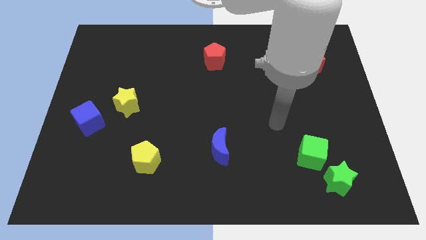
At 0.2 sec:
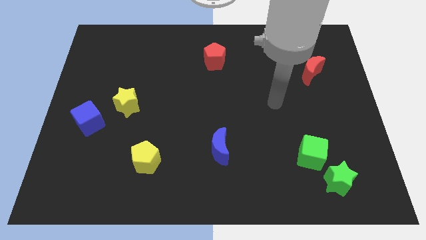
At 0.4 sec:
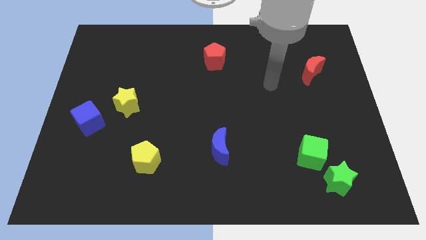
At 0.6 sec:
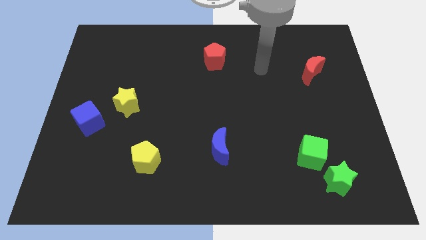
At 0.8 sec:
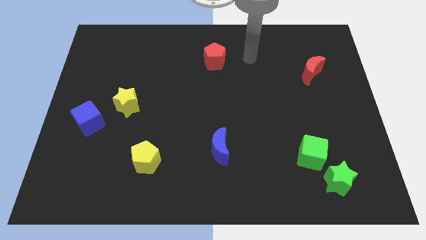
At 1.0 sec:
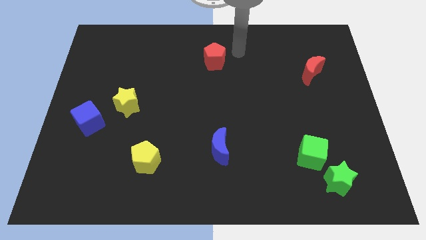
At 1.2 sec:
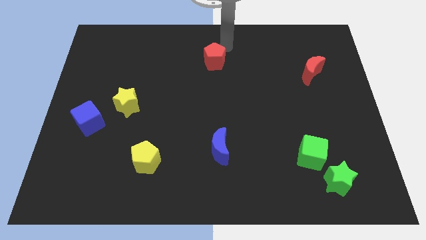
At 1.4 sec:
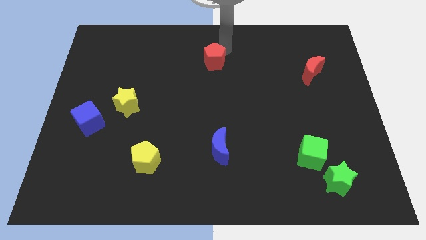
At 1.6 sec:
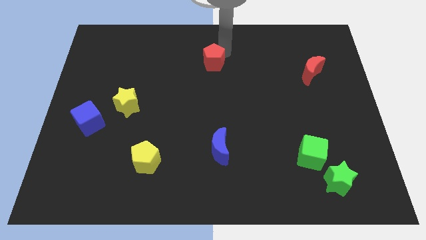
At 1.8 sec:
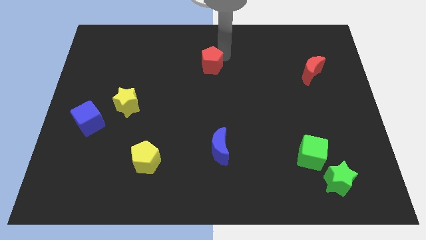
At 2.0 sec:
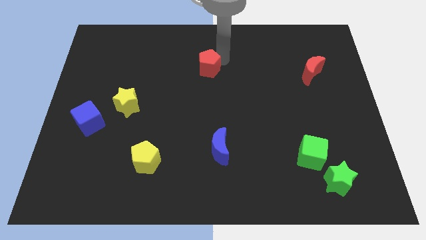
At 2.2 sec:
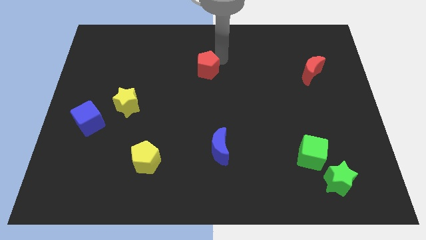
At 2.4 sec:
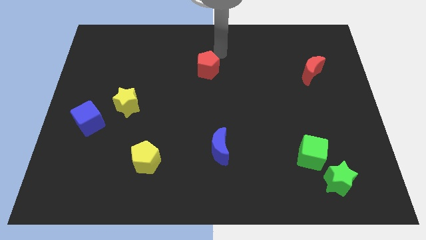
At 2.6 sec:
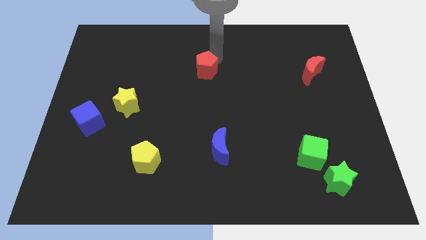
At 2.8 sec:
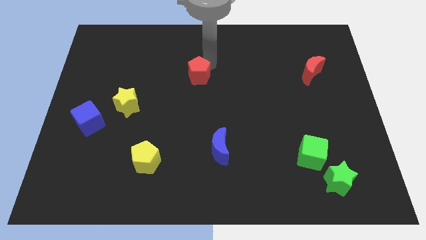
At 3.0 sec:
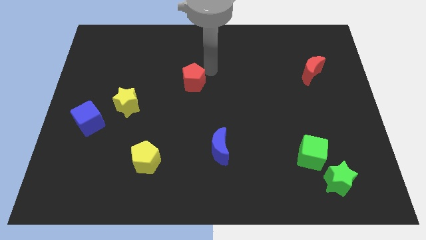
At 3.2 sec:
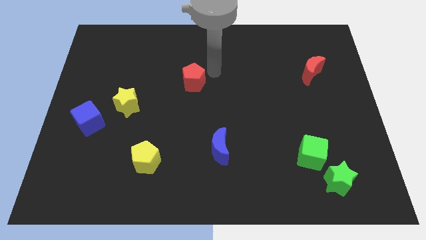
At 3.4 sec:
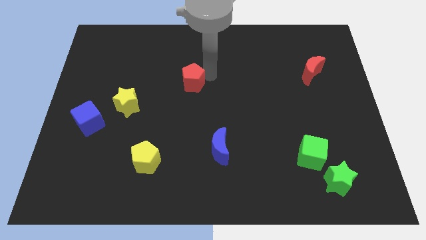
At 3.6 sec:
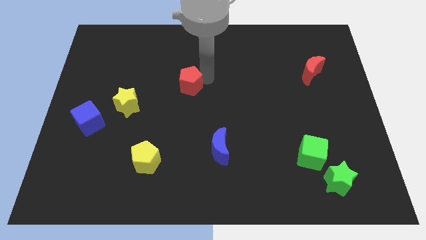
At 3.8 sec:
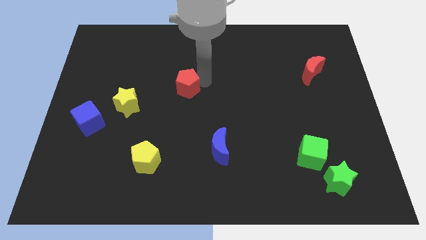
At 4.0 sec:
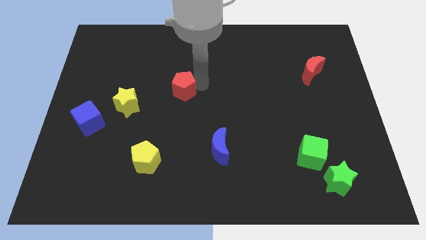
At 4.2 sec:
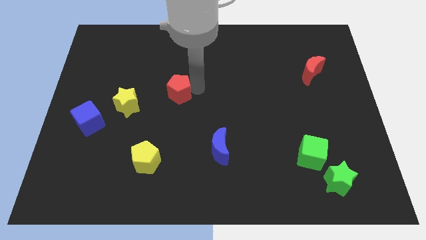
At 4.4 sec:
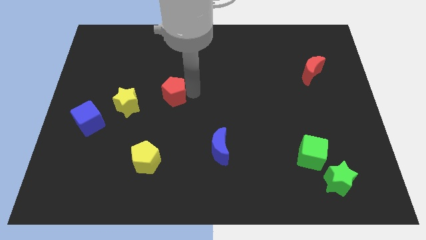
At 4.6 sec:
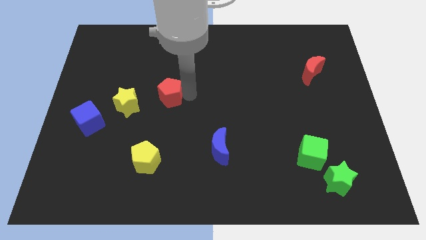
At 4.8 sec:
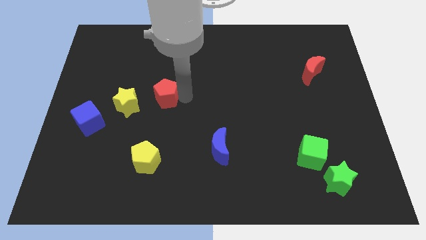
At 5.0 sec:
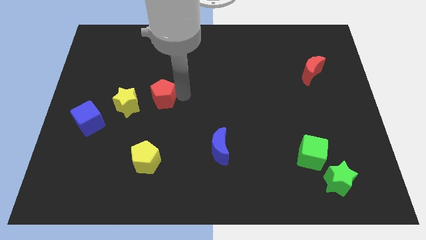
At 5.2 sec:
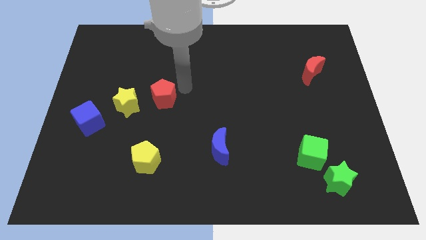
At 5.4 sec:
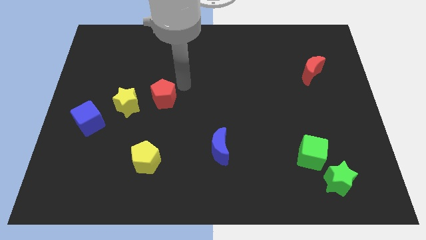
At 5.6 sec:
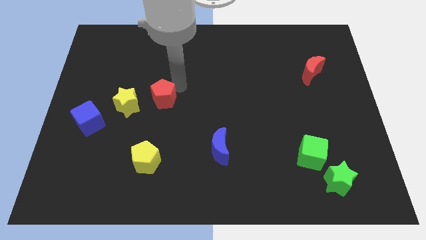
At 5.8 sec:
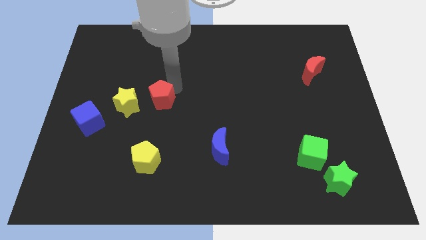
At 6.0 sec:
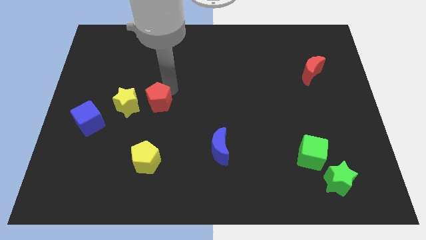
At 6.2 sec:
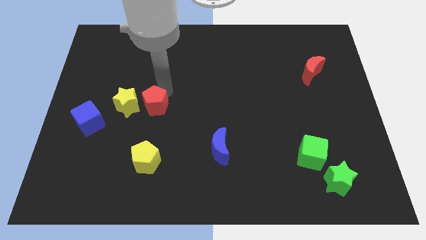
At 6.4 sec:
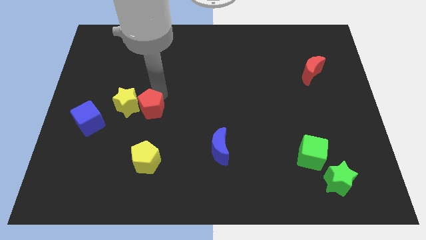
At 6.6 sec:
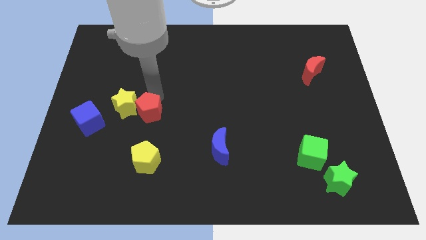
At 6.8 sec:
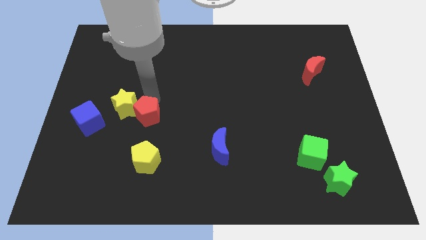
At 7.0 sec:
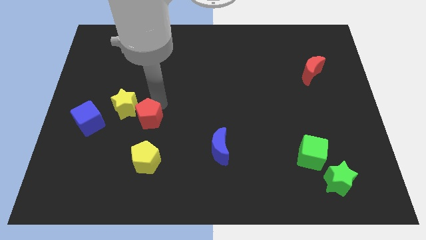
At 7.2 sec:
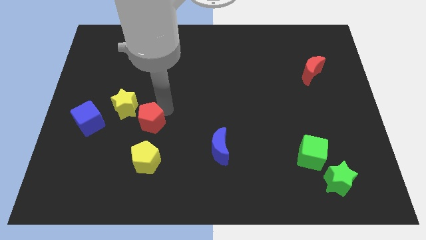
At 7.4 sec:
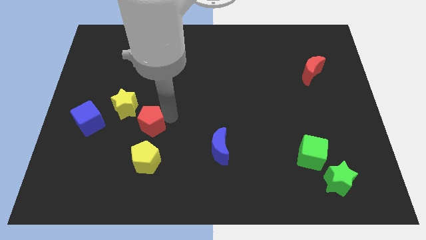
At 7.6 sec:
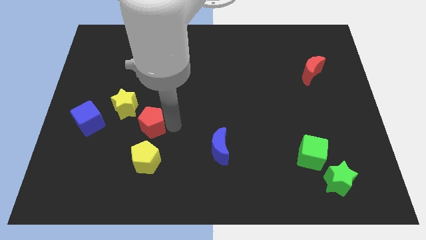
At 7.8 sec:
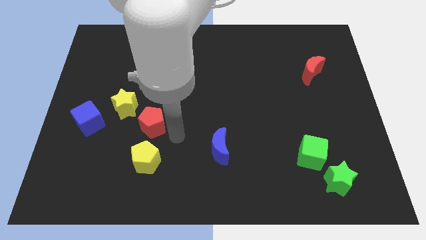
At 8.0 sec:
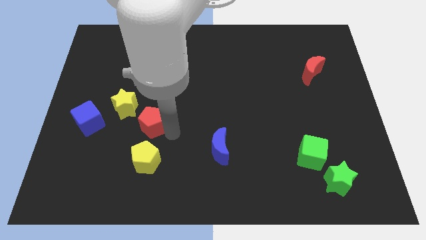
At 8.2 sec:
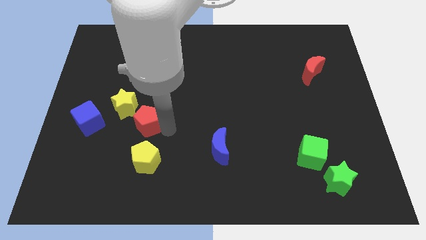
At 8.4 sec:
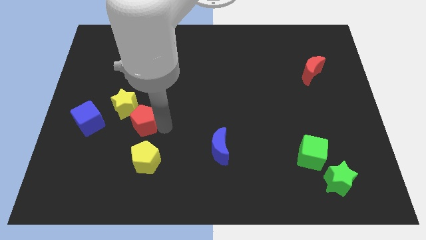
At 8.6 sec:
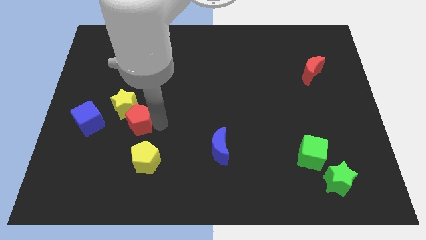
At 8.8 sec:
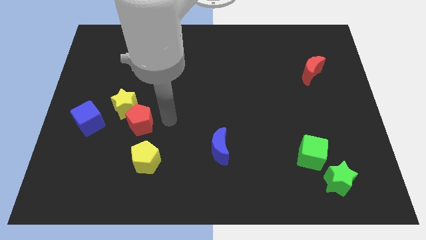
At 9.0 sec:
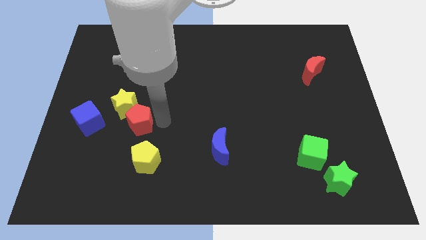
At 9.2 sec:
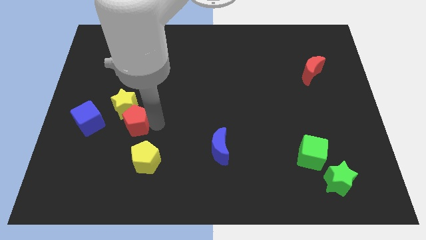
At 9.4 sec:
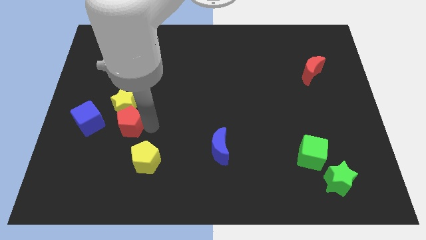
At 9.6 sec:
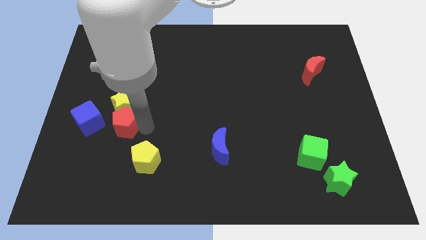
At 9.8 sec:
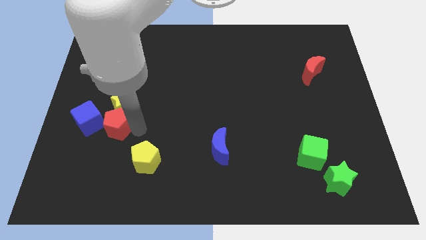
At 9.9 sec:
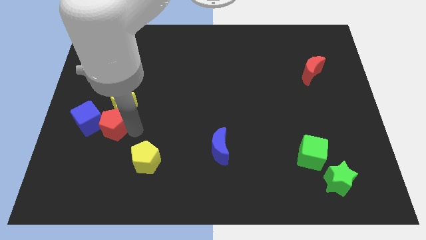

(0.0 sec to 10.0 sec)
push the red pentagon towards the blue cube

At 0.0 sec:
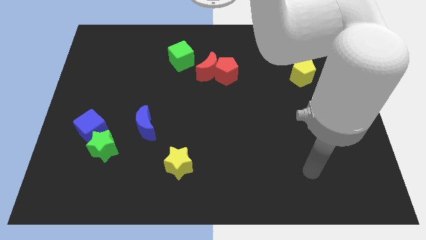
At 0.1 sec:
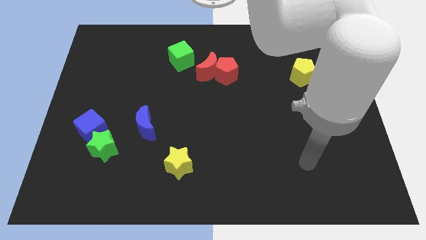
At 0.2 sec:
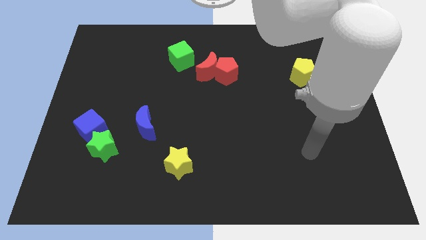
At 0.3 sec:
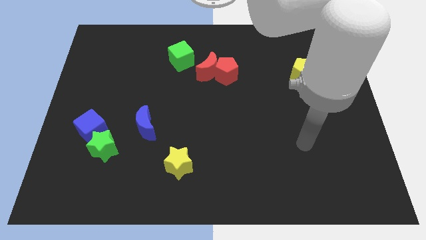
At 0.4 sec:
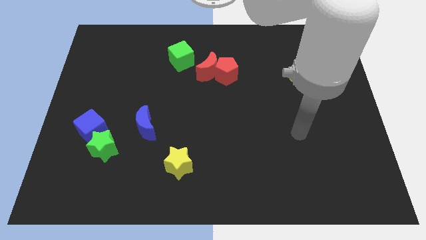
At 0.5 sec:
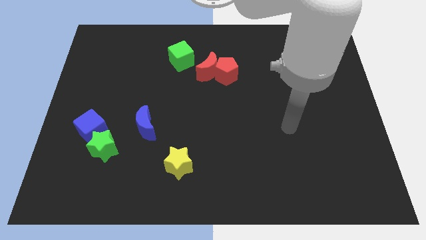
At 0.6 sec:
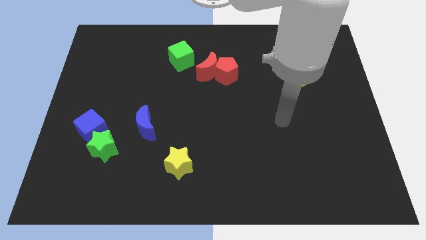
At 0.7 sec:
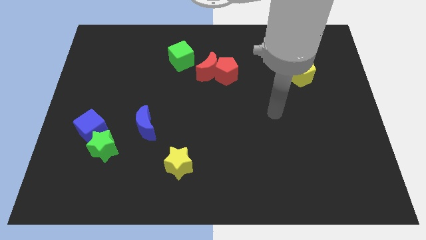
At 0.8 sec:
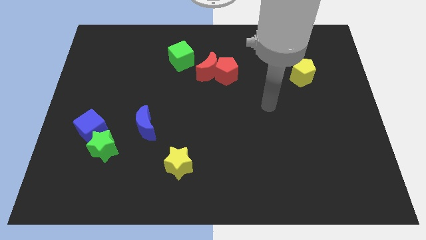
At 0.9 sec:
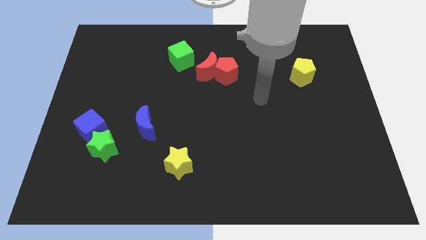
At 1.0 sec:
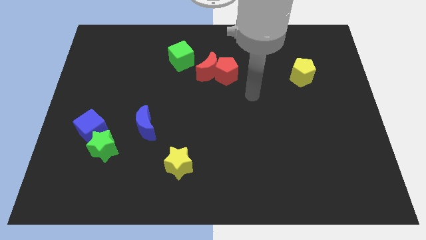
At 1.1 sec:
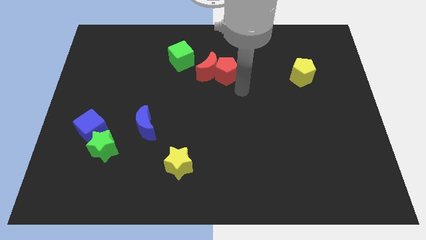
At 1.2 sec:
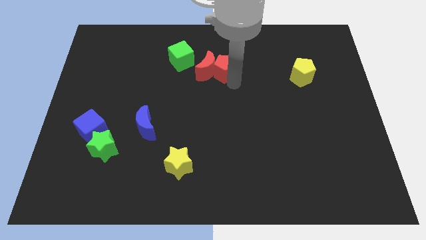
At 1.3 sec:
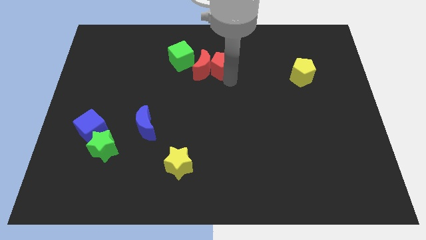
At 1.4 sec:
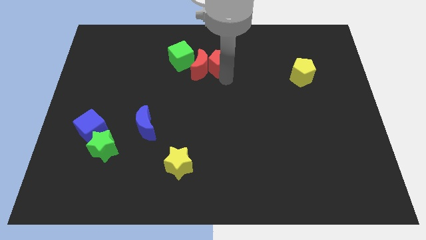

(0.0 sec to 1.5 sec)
put the red moon towards the green cube

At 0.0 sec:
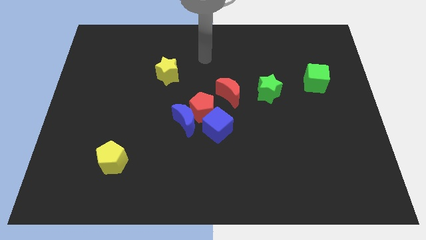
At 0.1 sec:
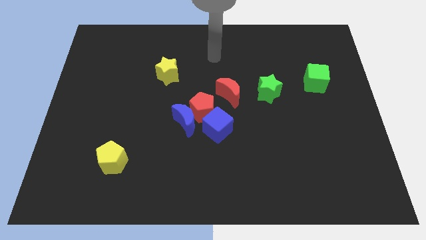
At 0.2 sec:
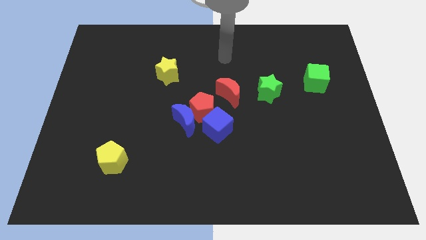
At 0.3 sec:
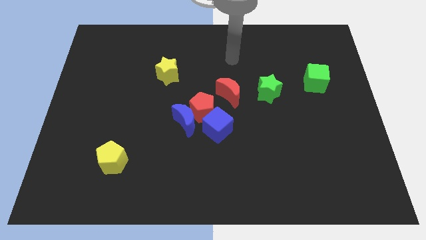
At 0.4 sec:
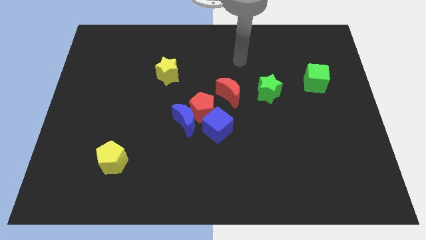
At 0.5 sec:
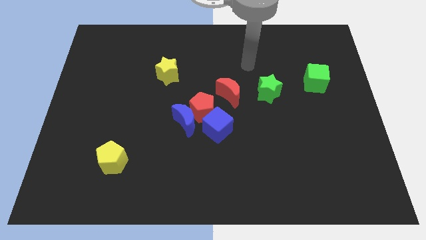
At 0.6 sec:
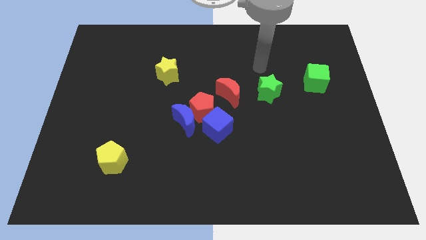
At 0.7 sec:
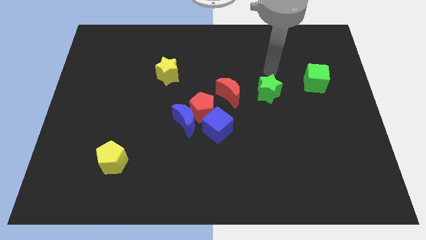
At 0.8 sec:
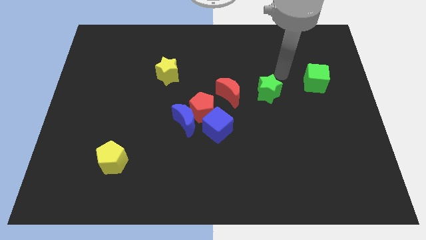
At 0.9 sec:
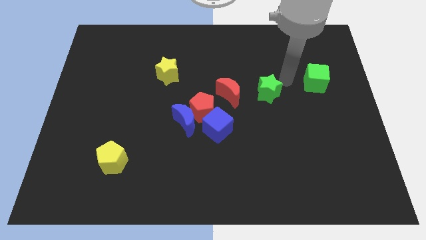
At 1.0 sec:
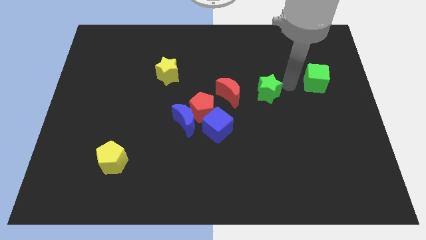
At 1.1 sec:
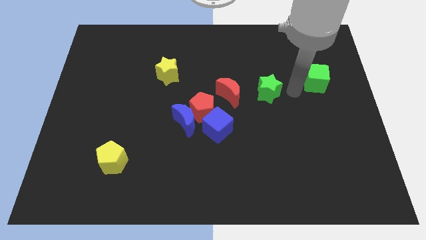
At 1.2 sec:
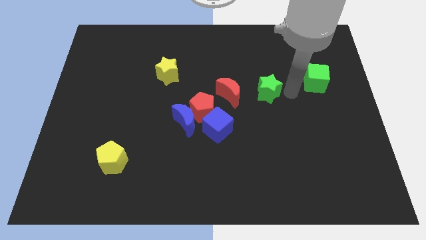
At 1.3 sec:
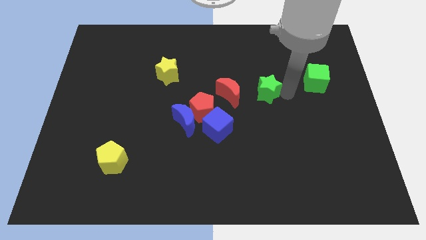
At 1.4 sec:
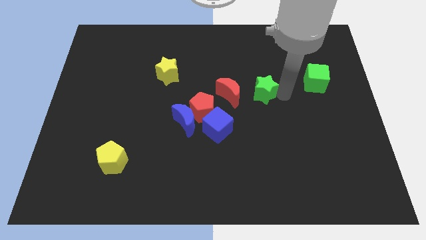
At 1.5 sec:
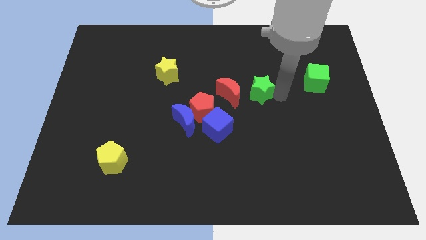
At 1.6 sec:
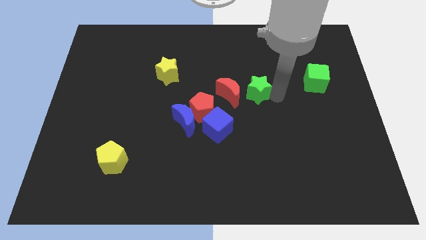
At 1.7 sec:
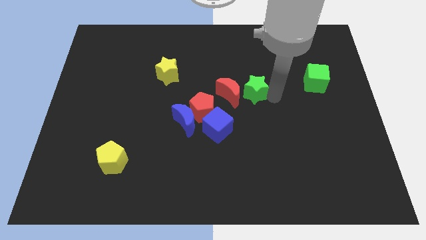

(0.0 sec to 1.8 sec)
push the green star towards the red moon
